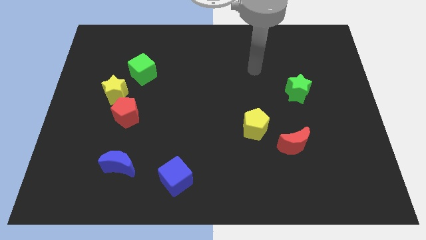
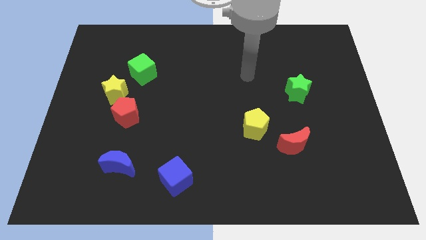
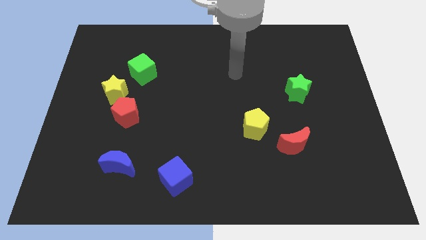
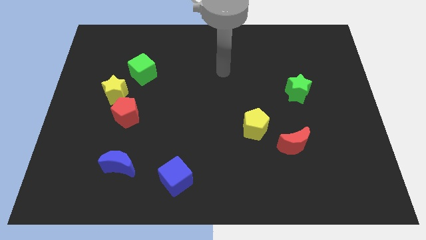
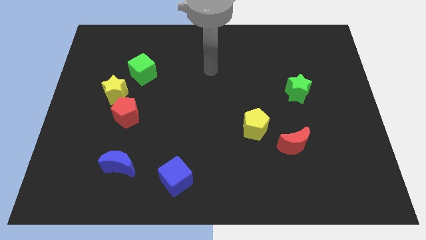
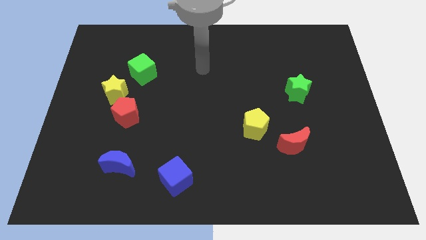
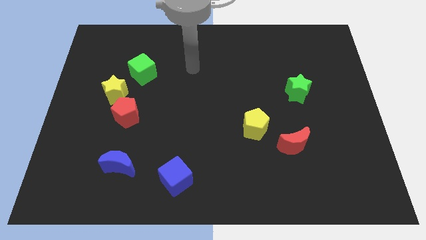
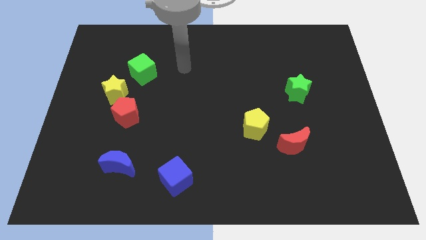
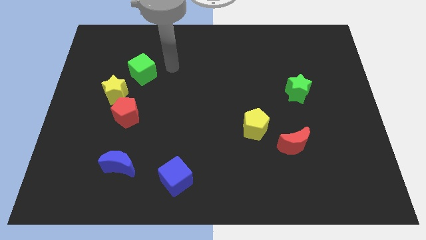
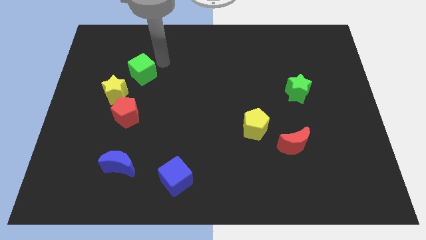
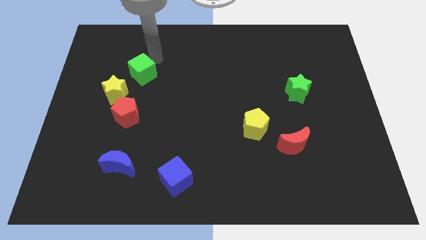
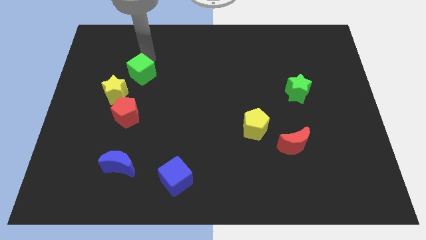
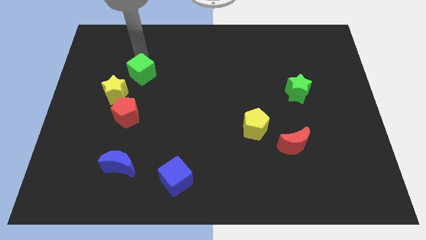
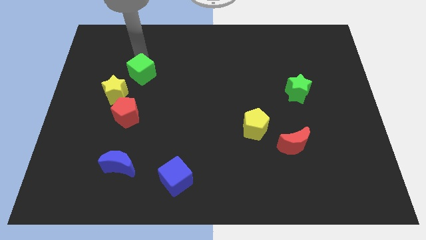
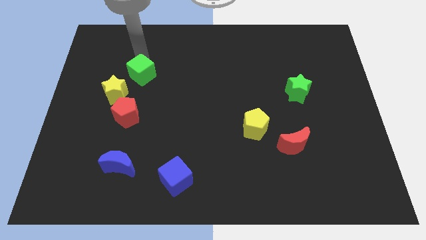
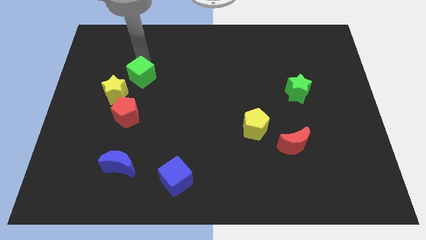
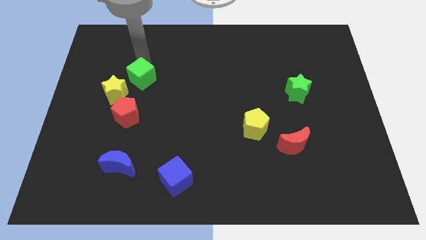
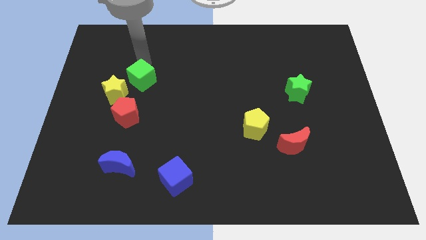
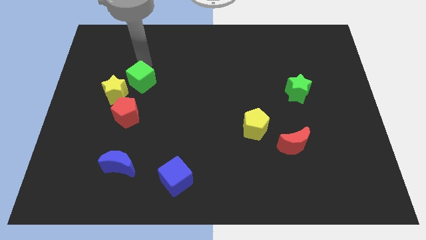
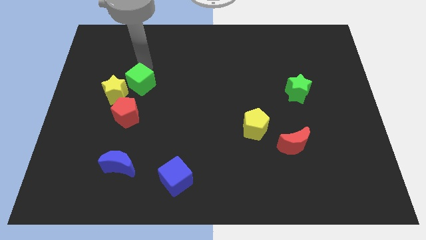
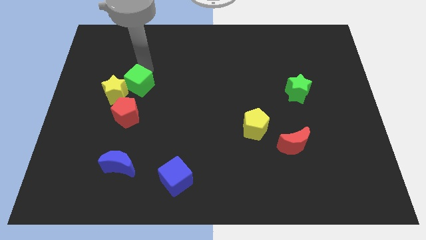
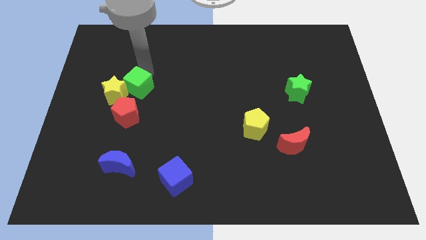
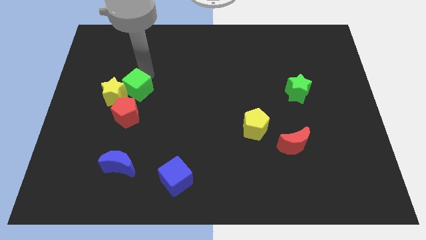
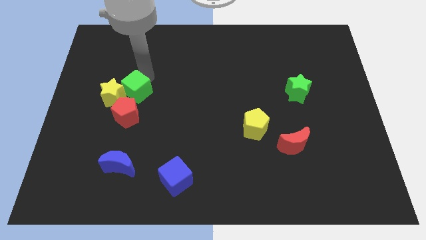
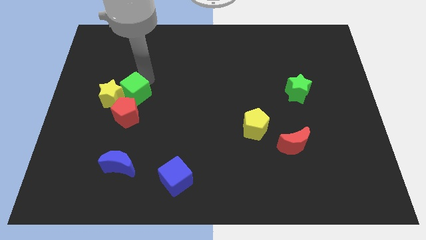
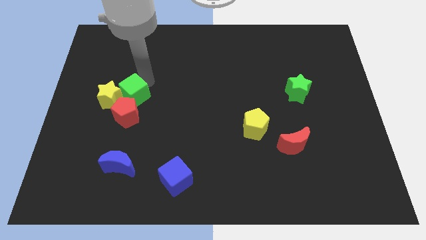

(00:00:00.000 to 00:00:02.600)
slightly push the green cube downwards

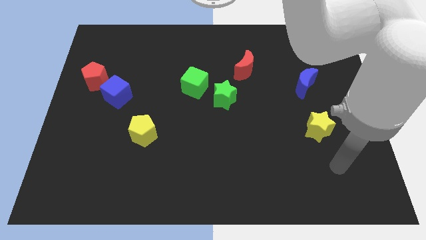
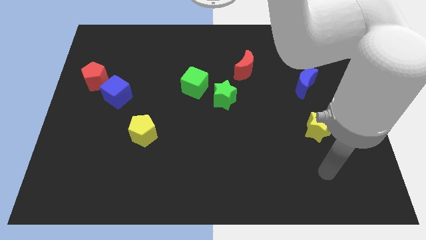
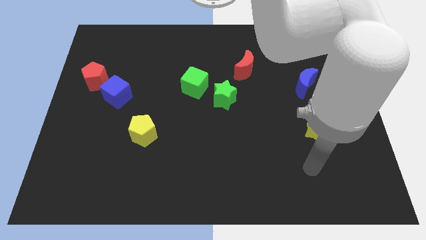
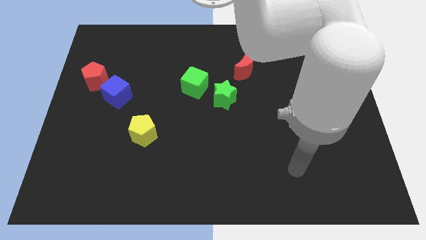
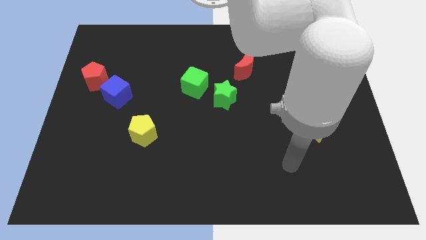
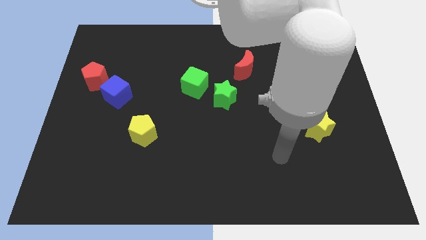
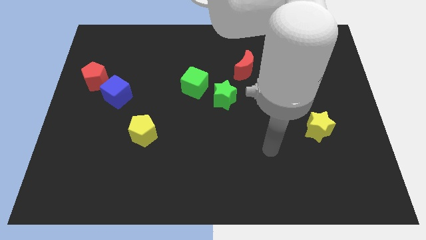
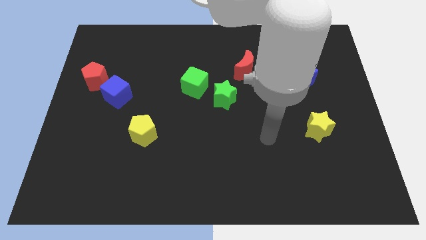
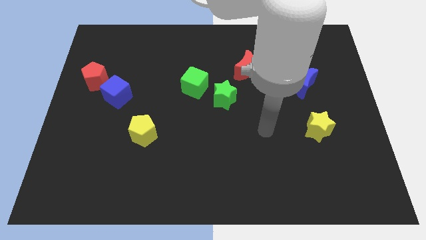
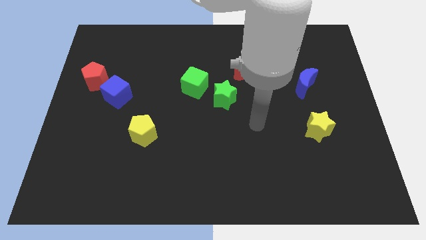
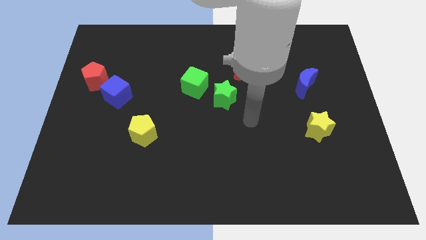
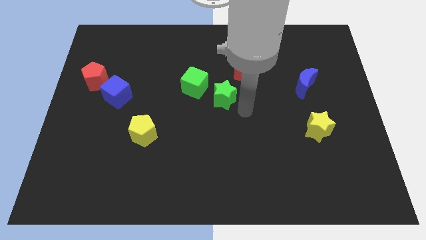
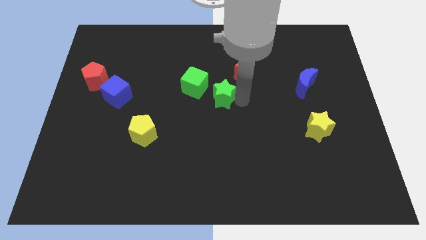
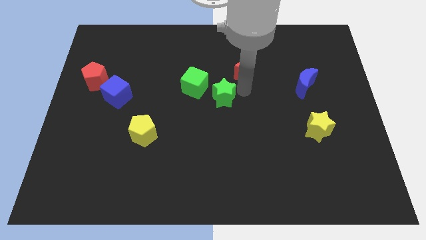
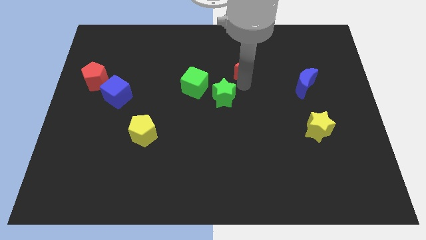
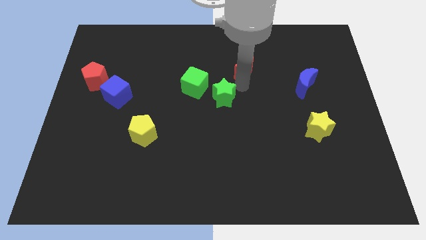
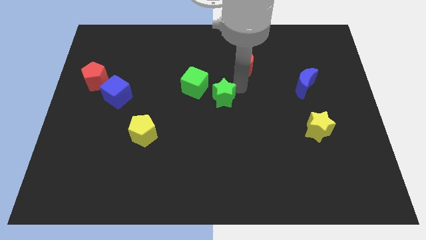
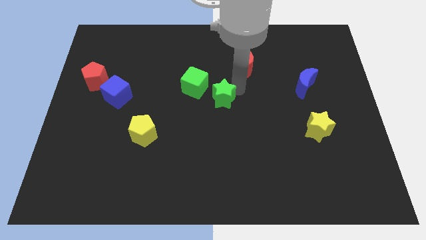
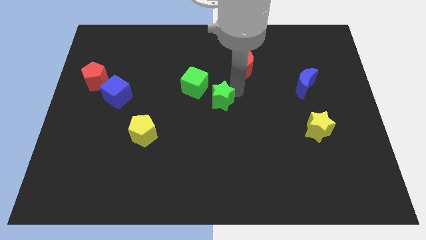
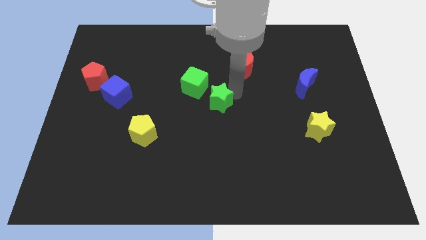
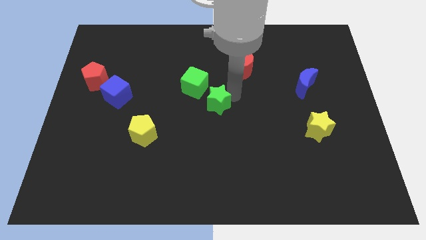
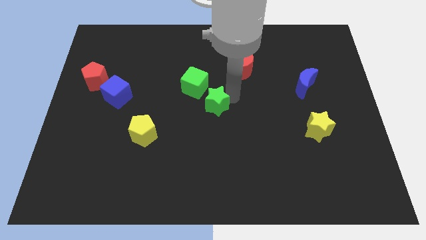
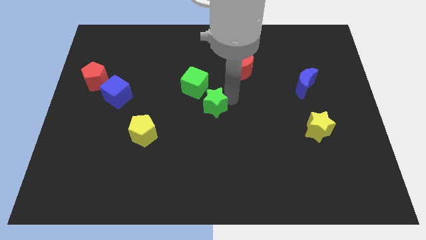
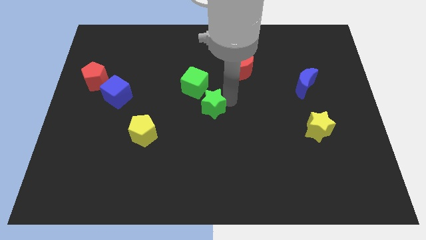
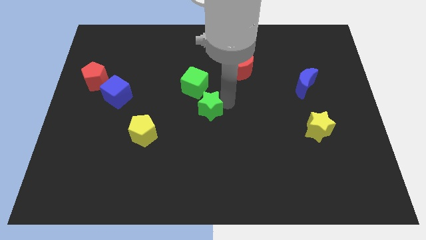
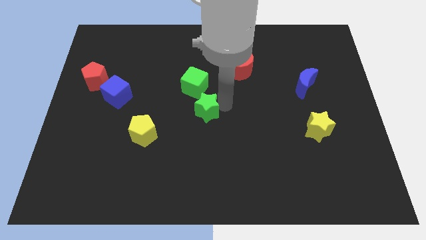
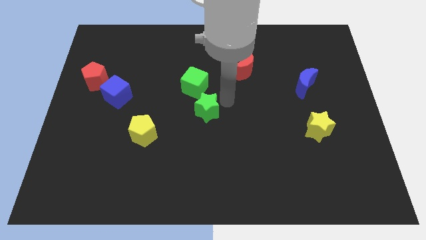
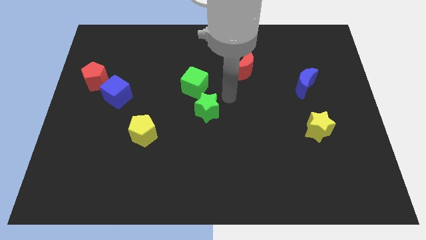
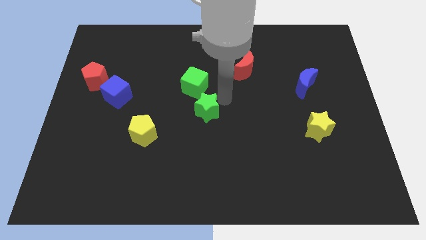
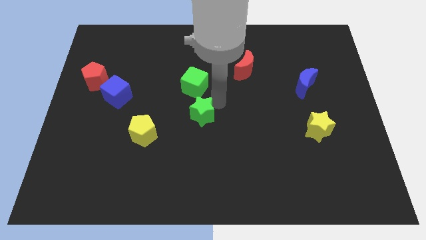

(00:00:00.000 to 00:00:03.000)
slide the green star downwards and left somewhat

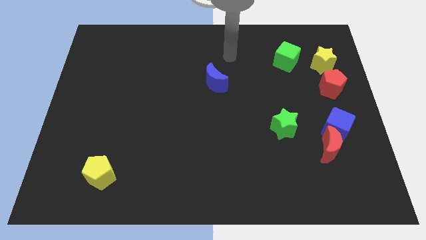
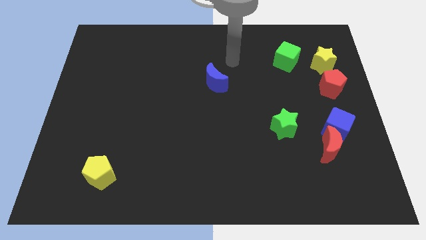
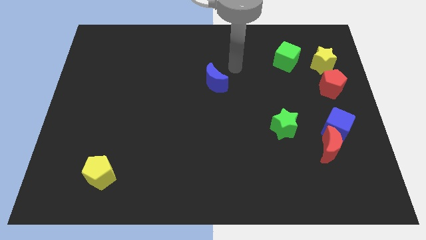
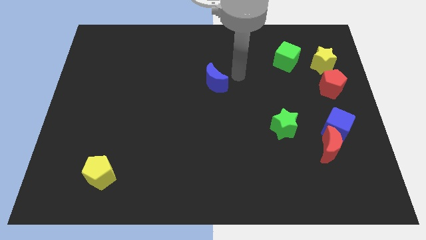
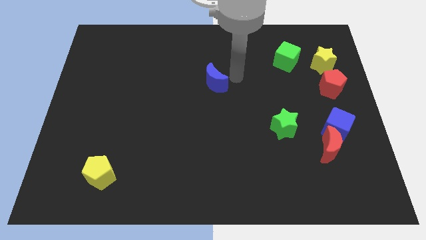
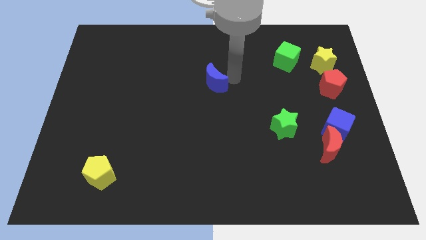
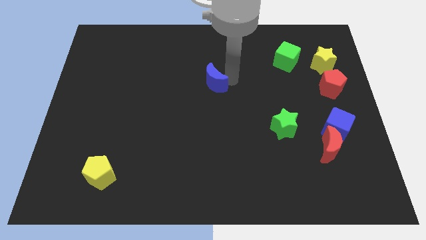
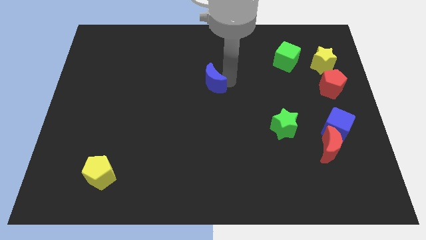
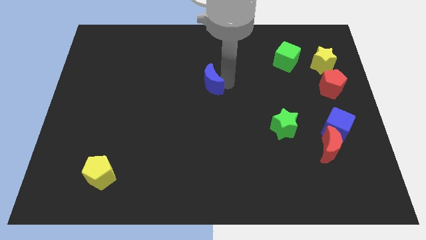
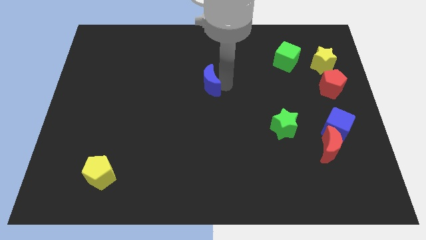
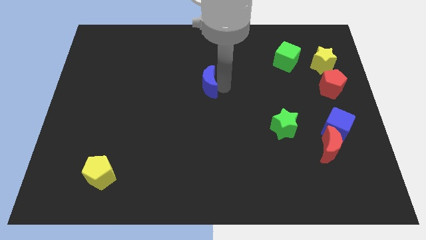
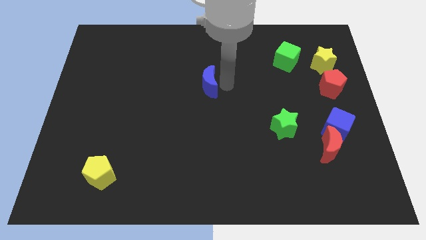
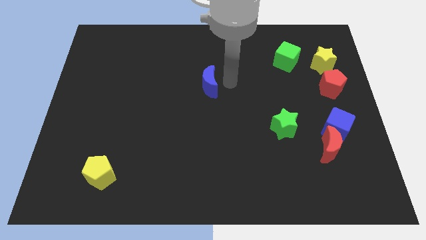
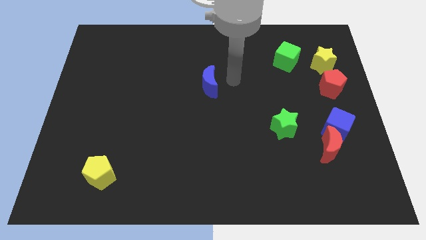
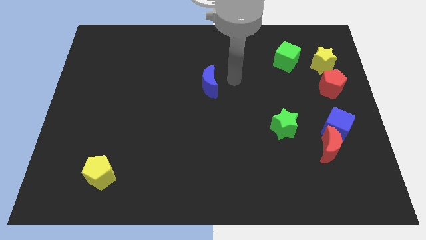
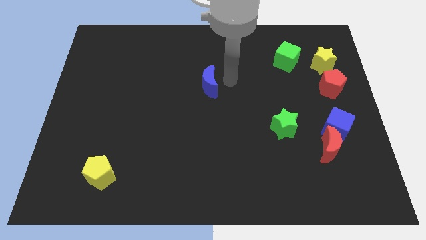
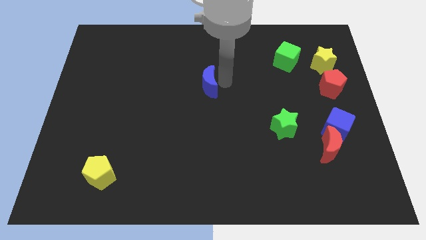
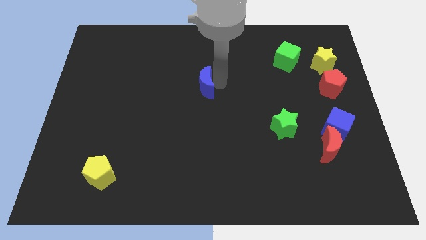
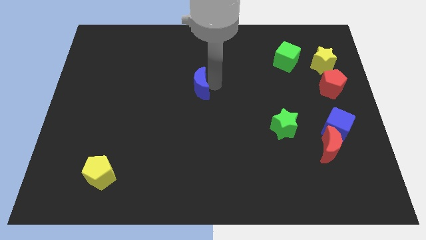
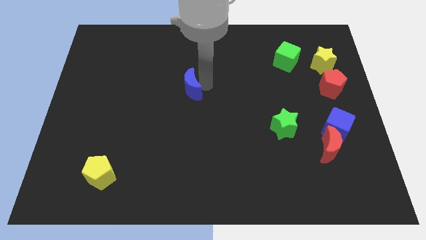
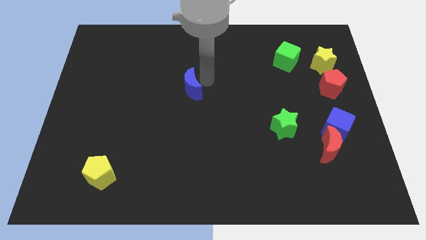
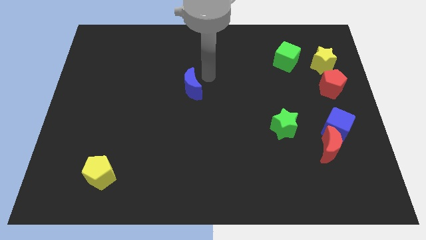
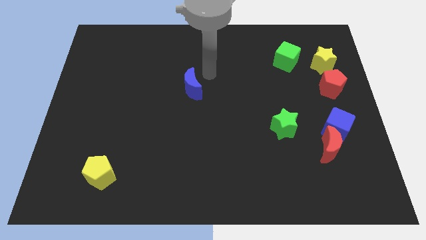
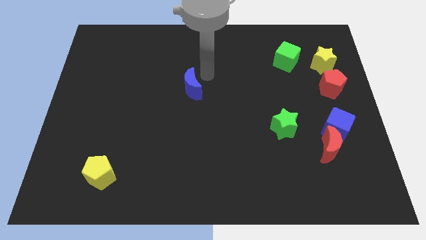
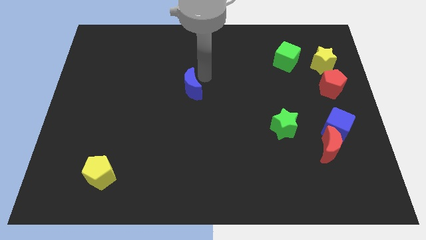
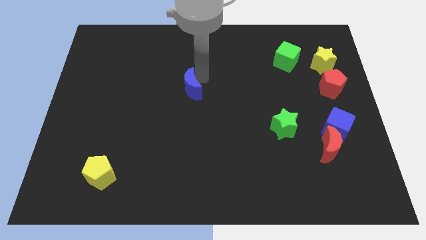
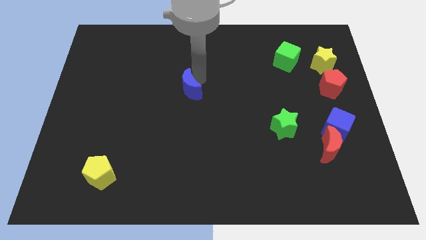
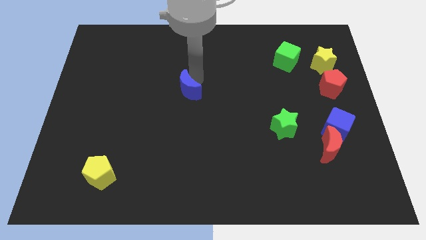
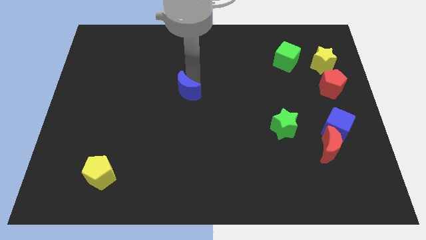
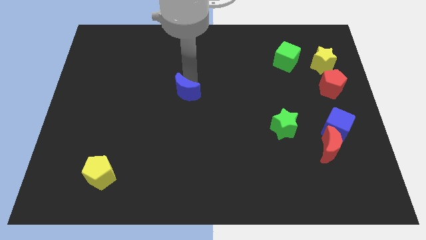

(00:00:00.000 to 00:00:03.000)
slightly push the blue moon down and then left
